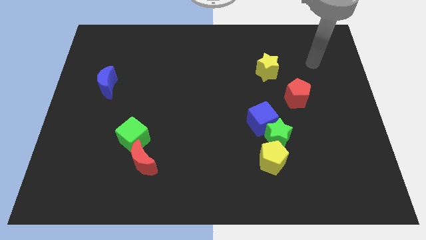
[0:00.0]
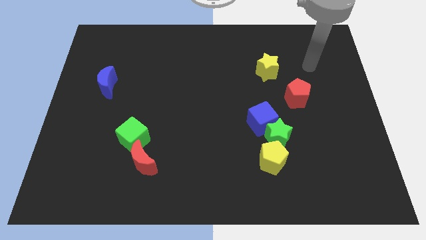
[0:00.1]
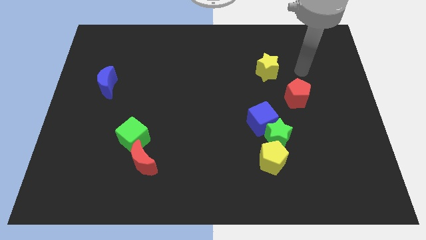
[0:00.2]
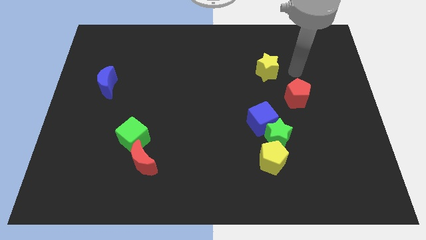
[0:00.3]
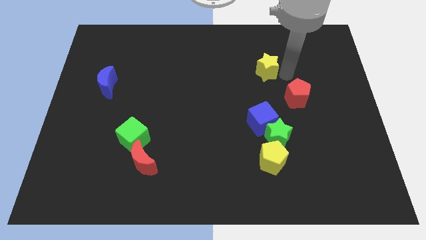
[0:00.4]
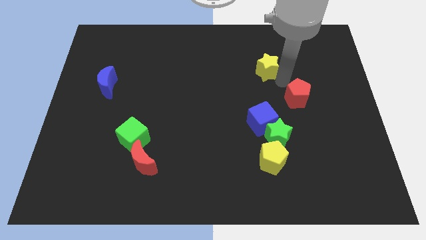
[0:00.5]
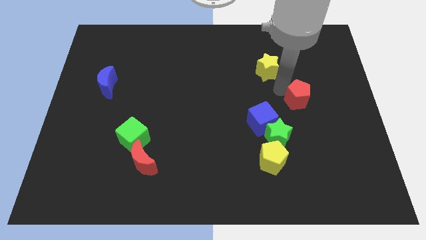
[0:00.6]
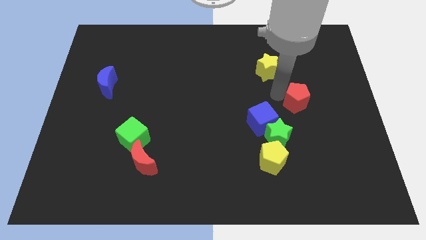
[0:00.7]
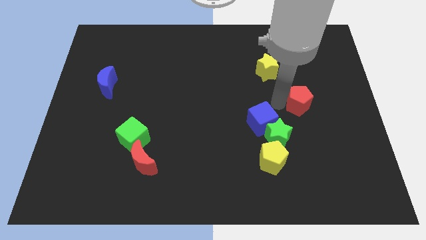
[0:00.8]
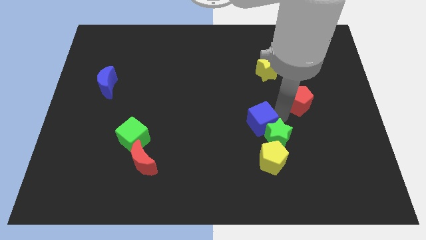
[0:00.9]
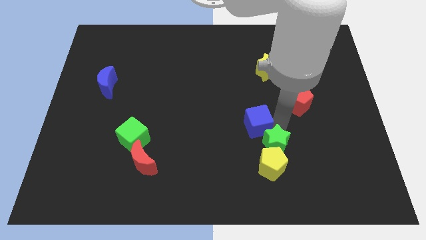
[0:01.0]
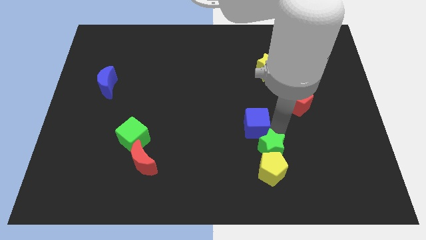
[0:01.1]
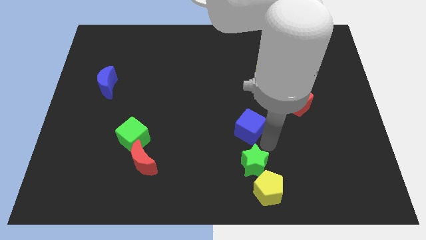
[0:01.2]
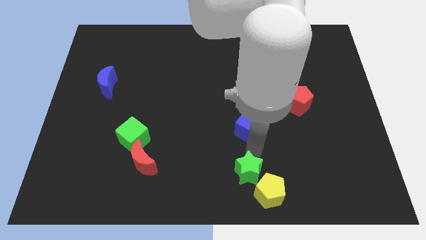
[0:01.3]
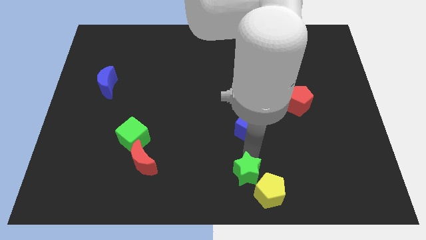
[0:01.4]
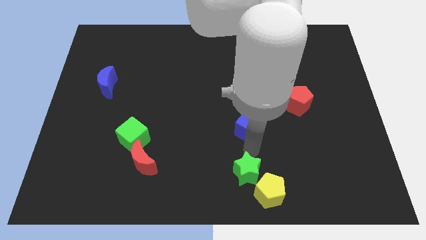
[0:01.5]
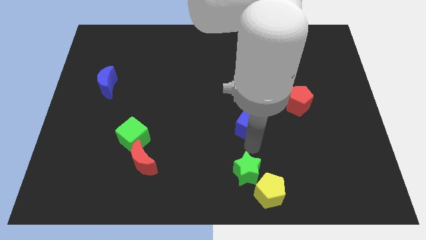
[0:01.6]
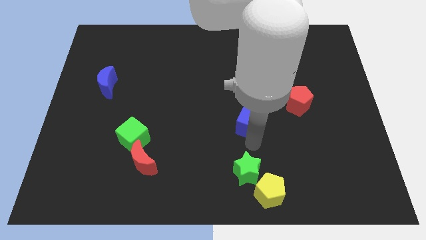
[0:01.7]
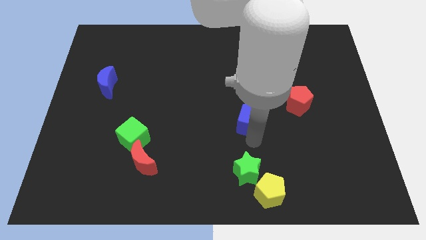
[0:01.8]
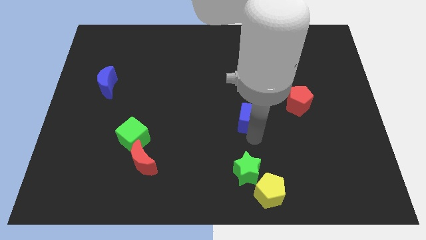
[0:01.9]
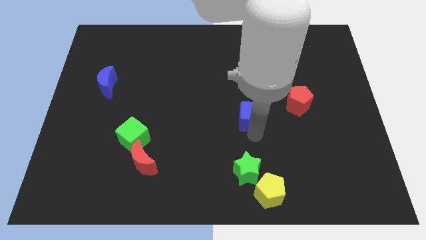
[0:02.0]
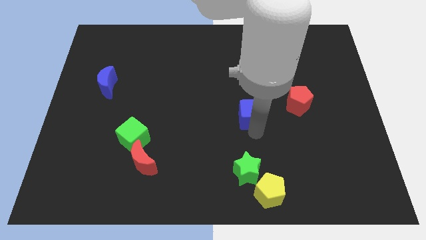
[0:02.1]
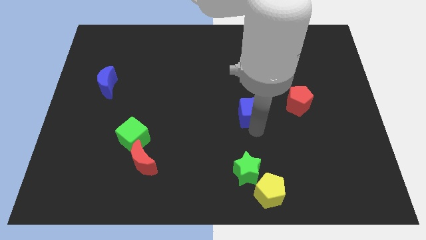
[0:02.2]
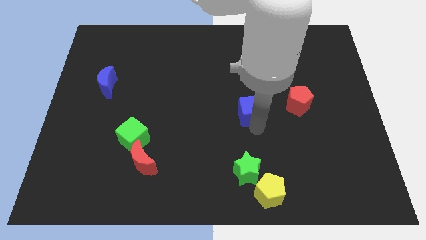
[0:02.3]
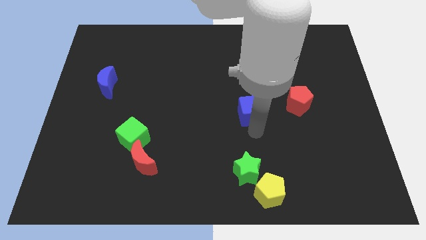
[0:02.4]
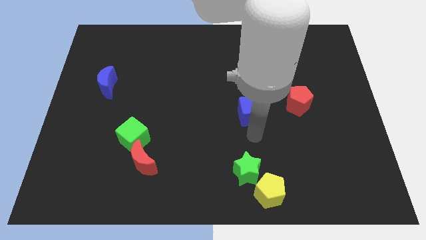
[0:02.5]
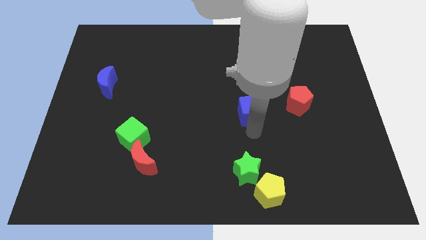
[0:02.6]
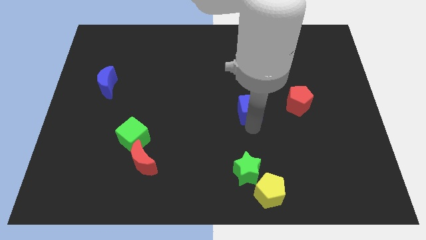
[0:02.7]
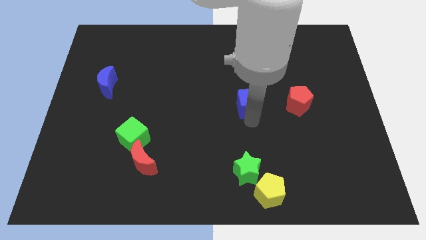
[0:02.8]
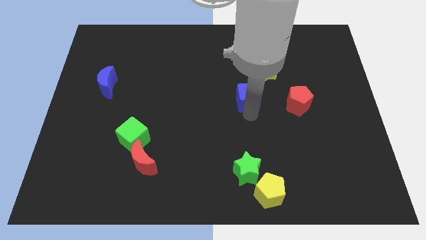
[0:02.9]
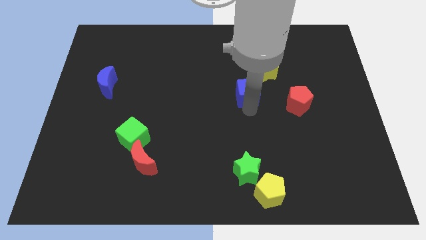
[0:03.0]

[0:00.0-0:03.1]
slide the blue cube a little up

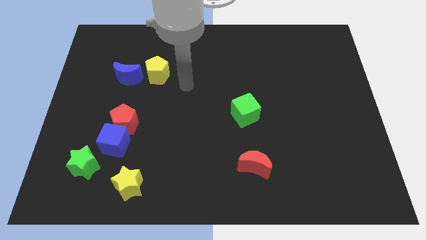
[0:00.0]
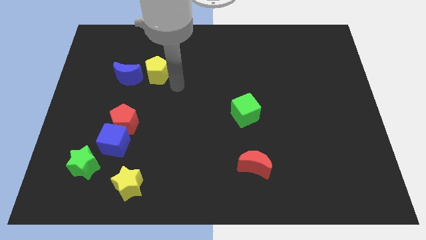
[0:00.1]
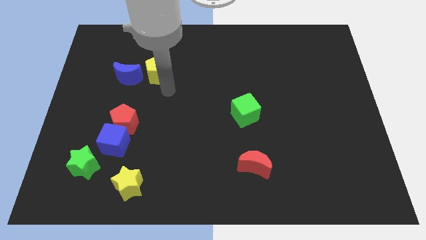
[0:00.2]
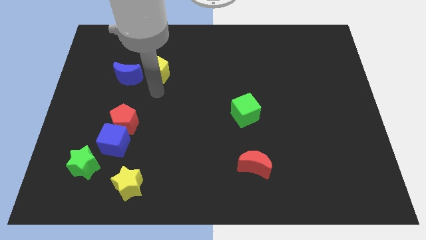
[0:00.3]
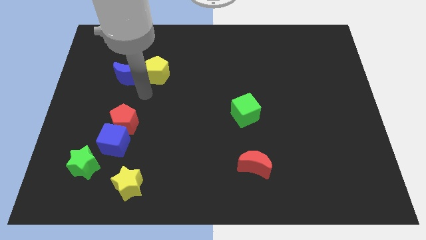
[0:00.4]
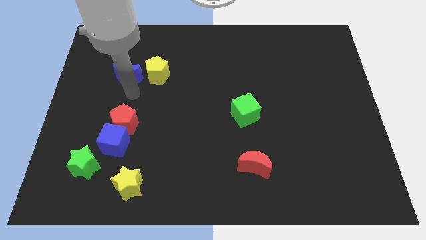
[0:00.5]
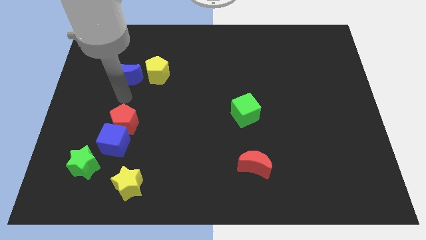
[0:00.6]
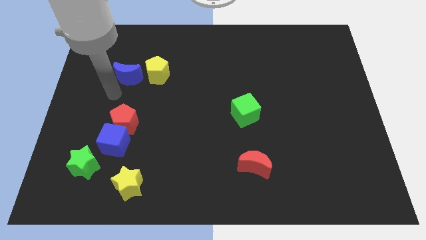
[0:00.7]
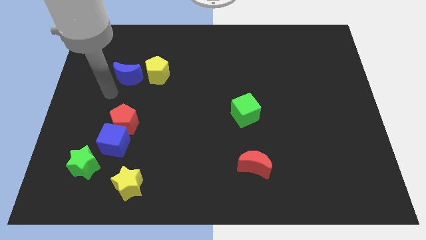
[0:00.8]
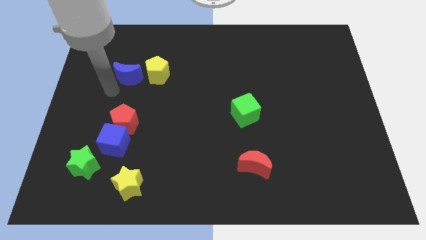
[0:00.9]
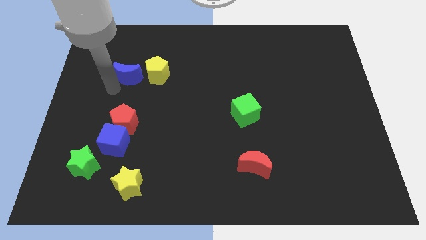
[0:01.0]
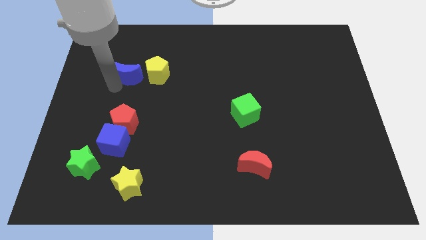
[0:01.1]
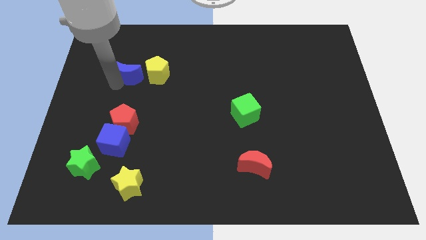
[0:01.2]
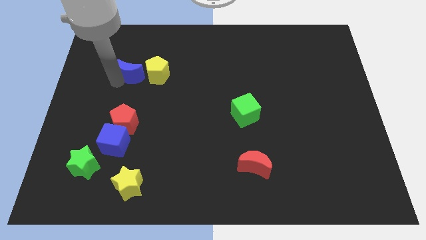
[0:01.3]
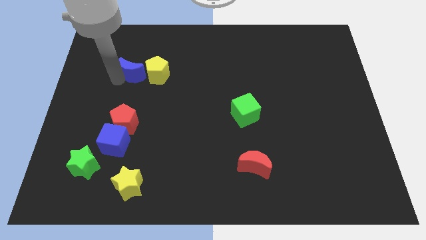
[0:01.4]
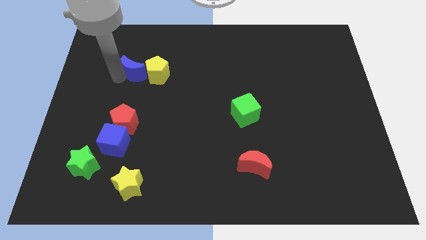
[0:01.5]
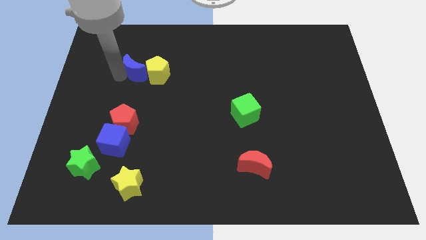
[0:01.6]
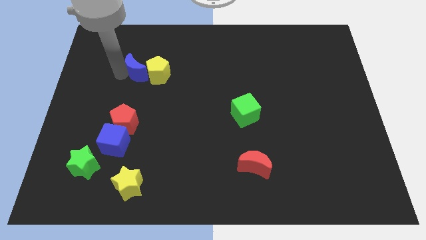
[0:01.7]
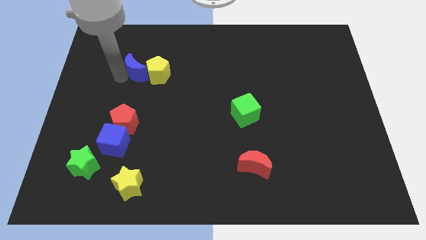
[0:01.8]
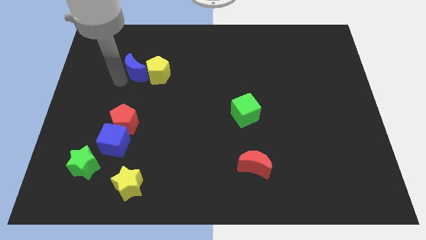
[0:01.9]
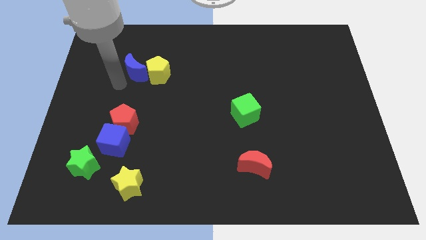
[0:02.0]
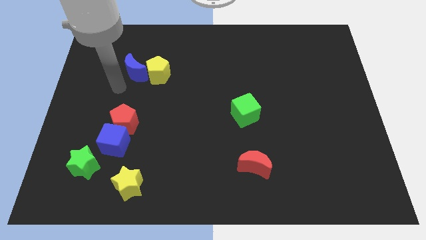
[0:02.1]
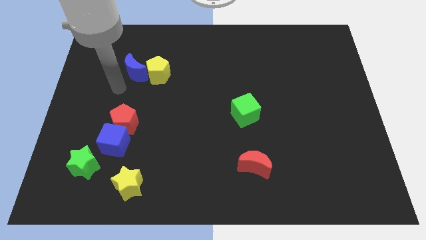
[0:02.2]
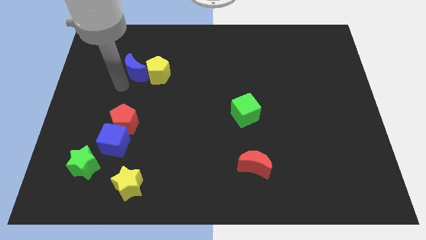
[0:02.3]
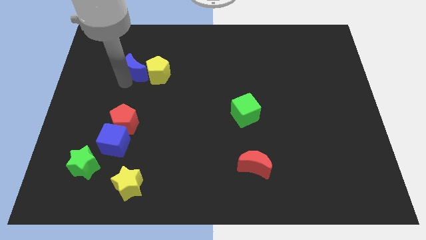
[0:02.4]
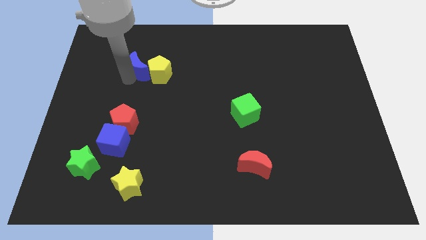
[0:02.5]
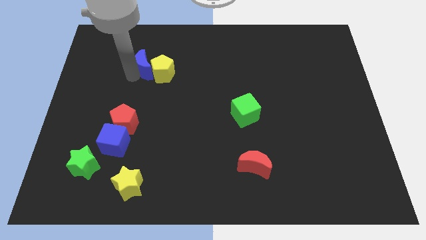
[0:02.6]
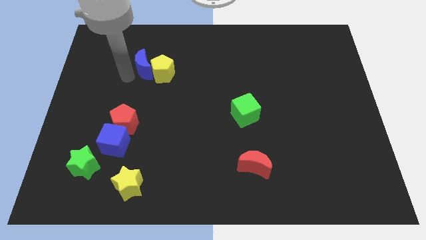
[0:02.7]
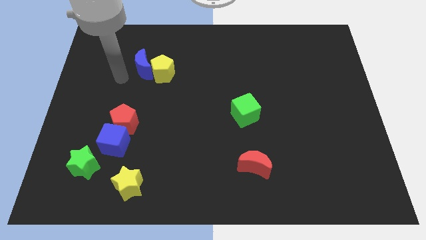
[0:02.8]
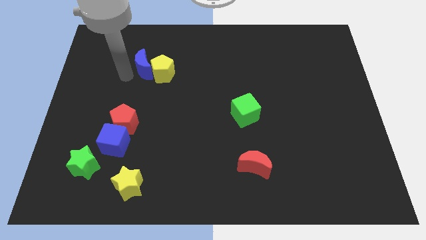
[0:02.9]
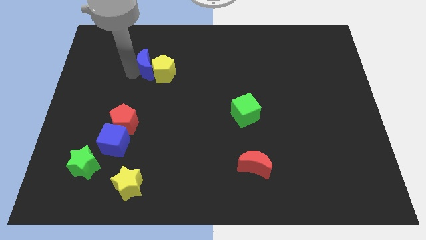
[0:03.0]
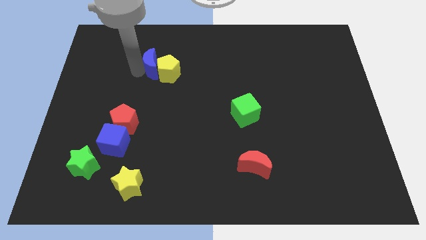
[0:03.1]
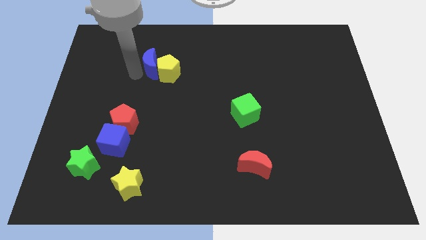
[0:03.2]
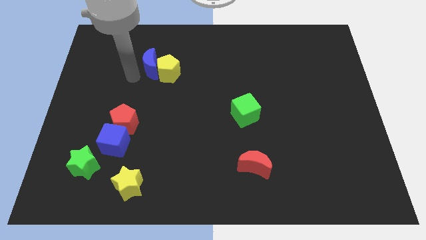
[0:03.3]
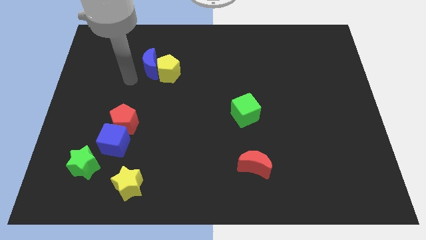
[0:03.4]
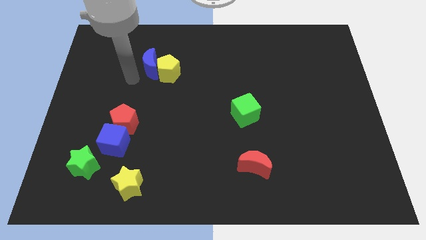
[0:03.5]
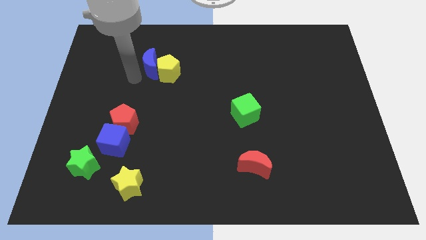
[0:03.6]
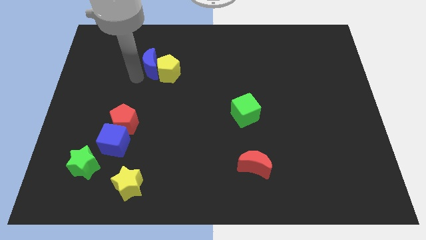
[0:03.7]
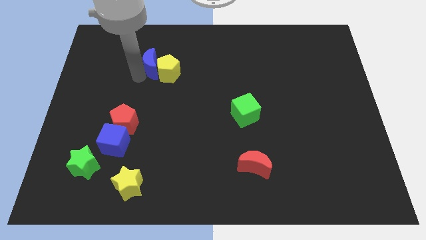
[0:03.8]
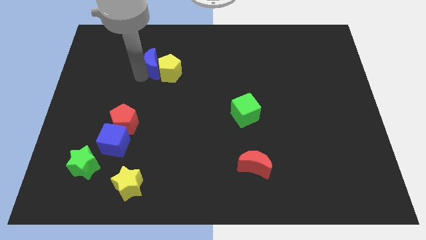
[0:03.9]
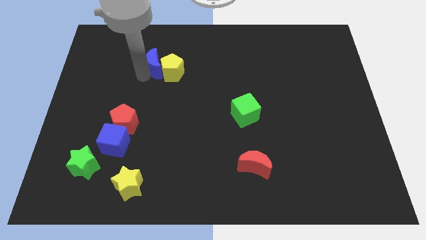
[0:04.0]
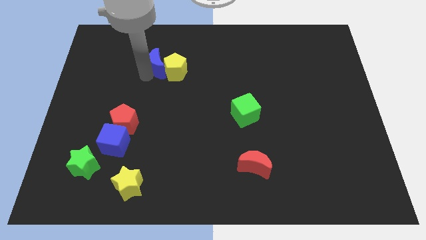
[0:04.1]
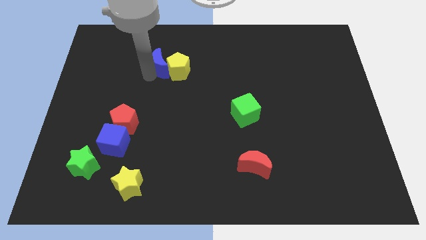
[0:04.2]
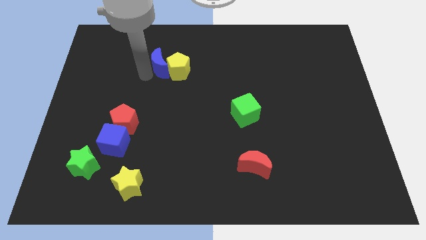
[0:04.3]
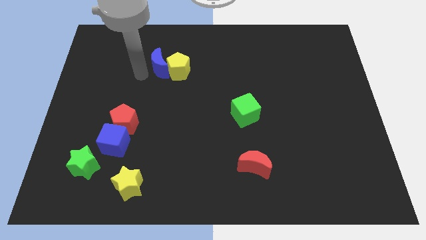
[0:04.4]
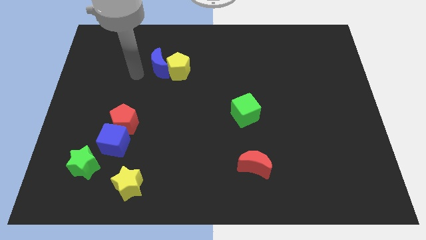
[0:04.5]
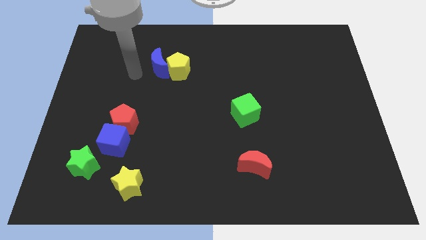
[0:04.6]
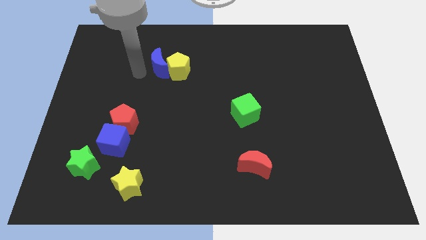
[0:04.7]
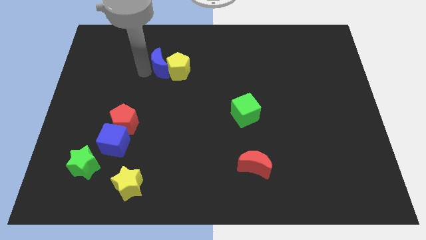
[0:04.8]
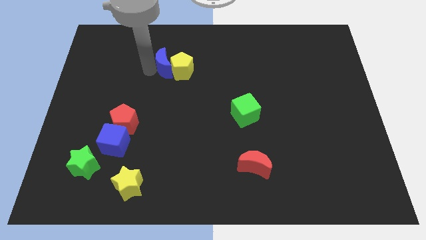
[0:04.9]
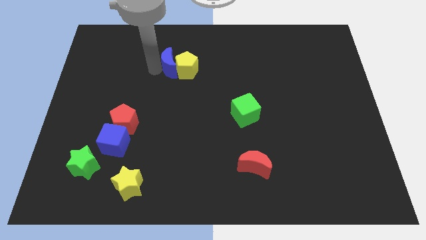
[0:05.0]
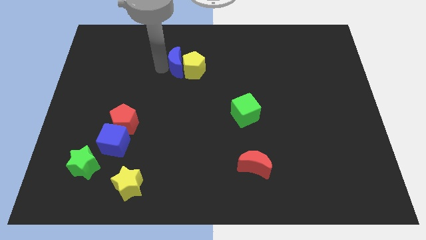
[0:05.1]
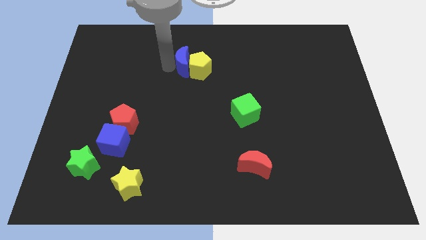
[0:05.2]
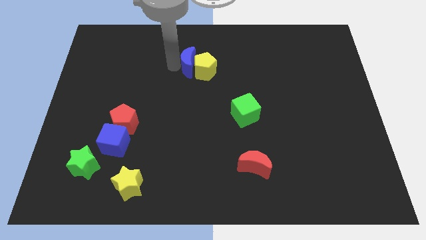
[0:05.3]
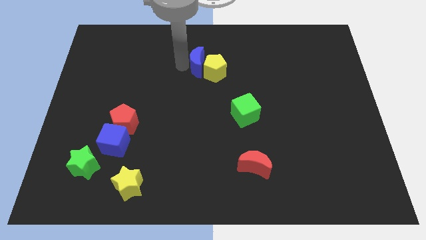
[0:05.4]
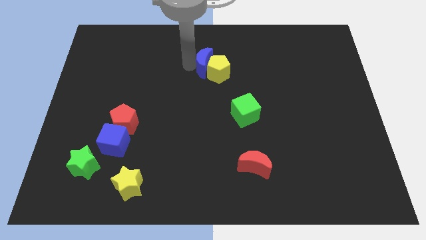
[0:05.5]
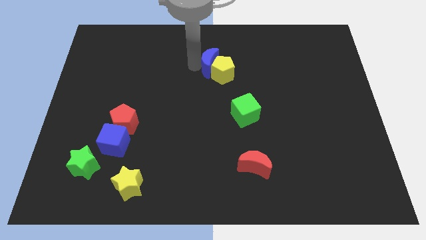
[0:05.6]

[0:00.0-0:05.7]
slide the blue moon right
